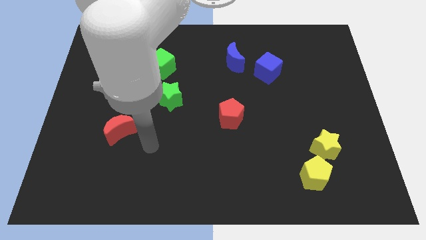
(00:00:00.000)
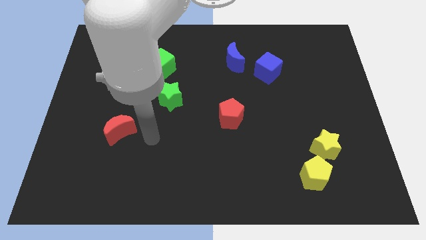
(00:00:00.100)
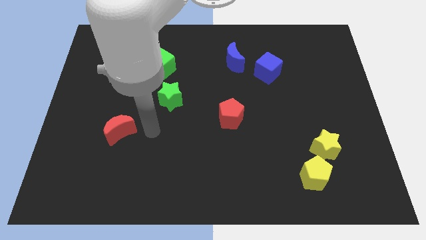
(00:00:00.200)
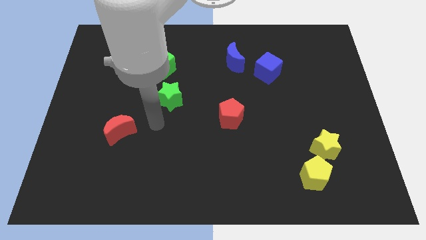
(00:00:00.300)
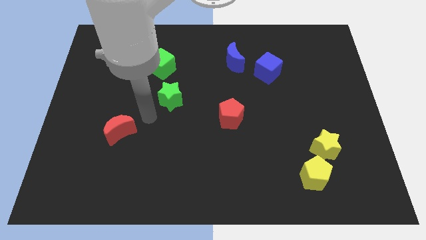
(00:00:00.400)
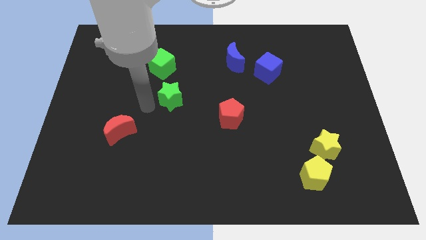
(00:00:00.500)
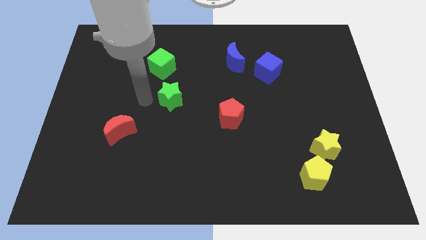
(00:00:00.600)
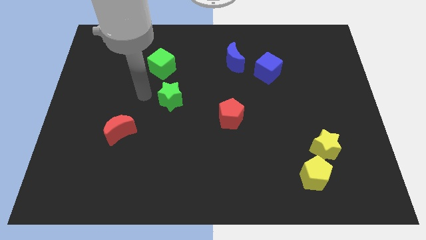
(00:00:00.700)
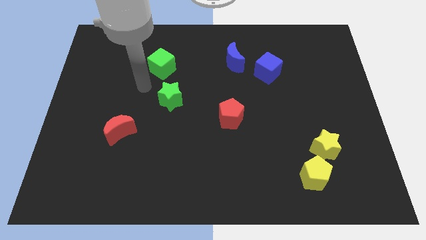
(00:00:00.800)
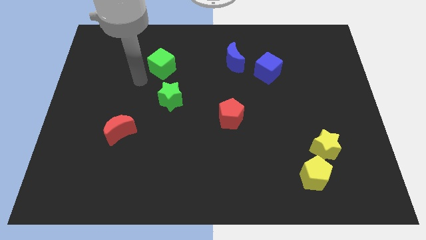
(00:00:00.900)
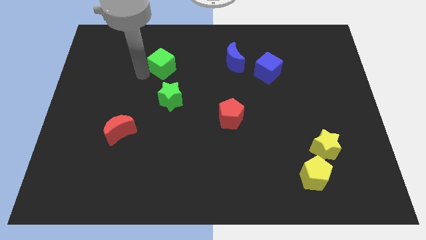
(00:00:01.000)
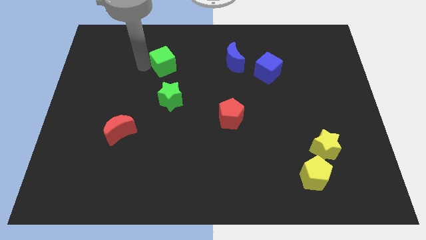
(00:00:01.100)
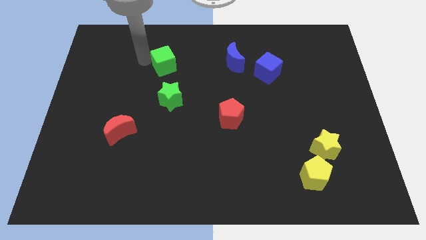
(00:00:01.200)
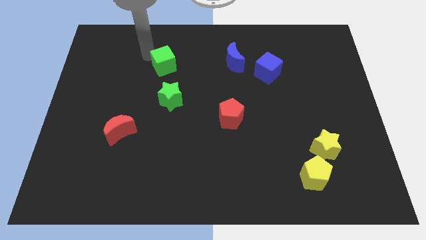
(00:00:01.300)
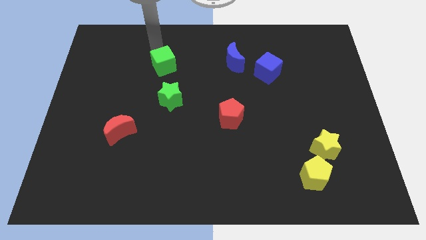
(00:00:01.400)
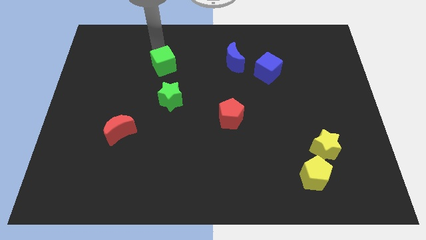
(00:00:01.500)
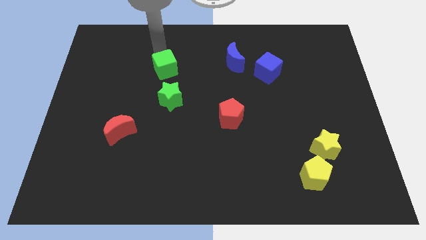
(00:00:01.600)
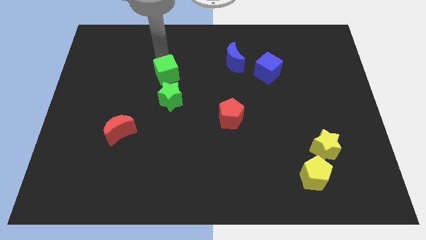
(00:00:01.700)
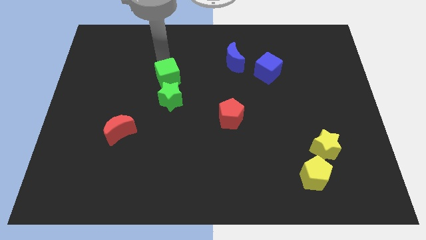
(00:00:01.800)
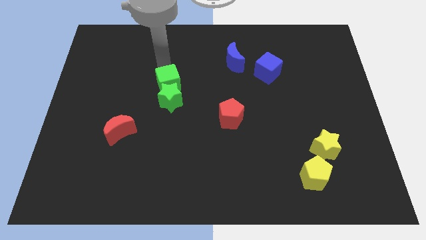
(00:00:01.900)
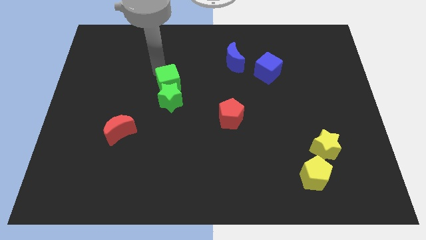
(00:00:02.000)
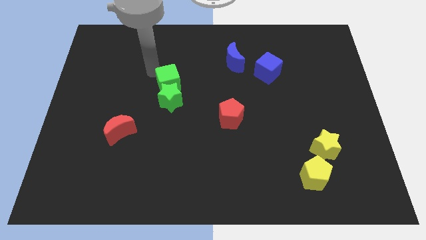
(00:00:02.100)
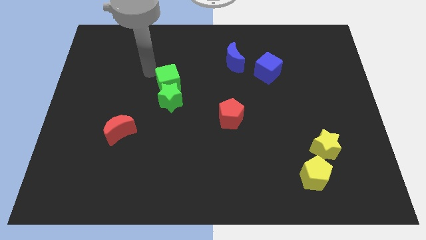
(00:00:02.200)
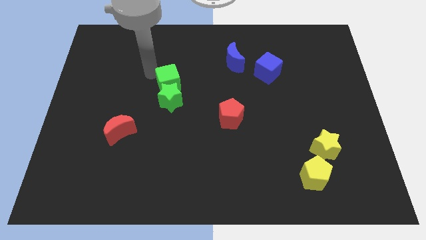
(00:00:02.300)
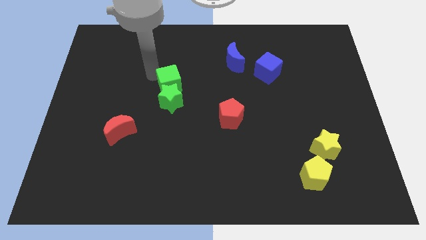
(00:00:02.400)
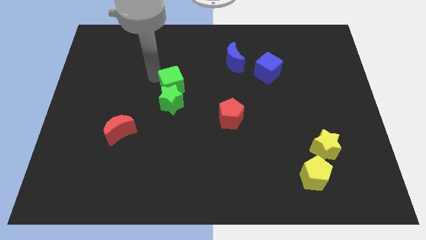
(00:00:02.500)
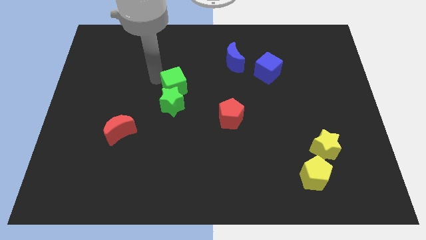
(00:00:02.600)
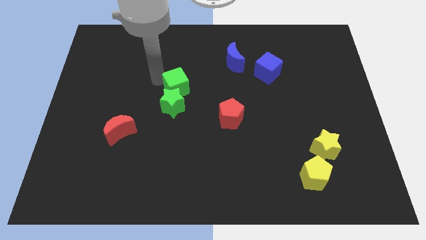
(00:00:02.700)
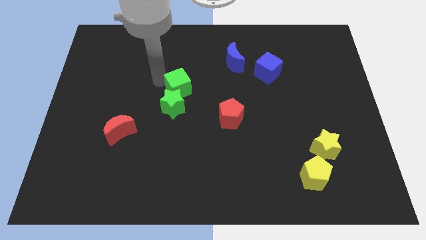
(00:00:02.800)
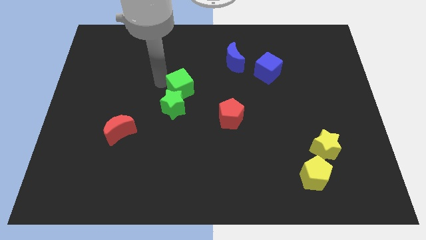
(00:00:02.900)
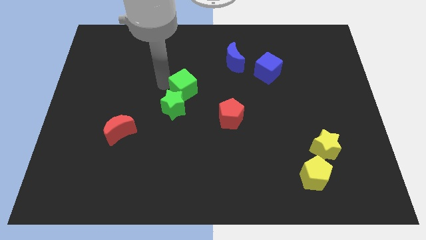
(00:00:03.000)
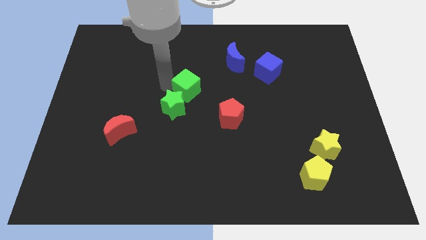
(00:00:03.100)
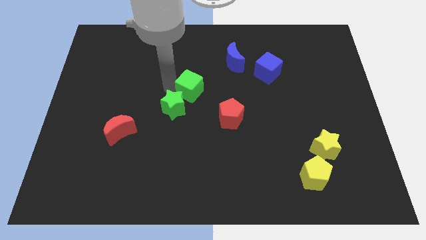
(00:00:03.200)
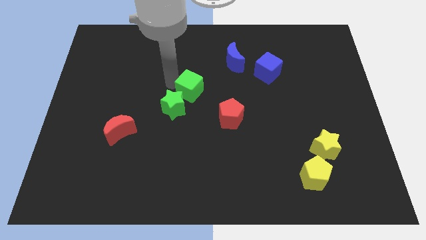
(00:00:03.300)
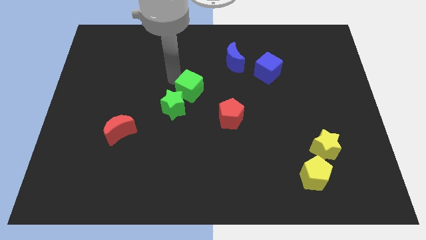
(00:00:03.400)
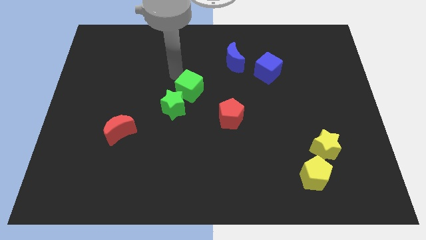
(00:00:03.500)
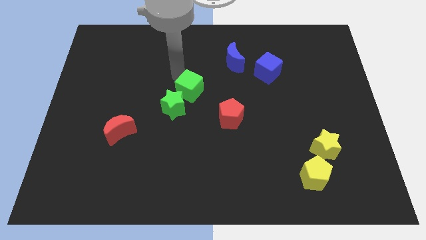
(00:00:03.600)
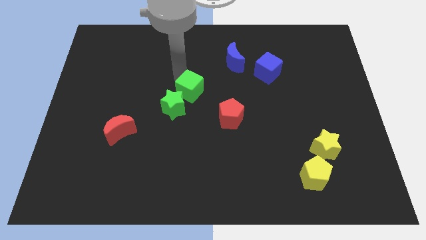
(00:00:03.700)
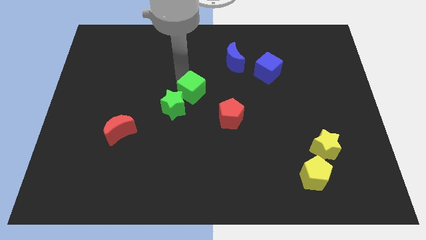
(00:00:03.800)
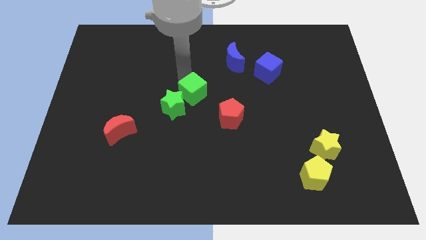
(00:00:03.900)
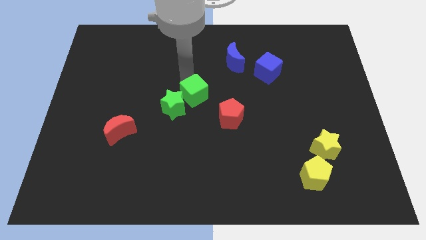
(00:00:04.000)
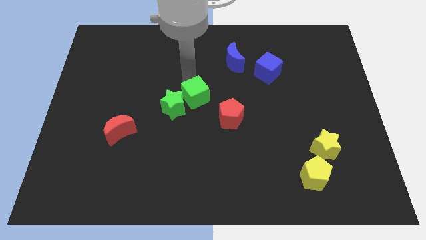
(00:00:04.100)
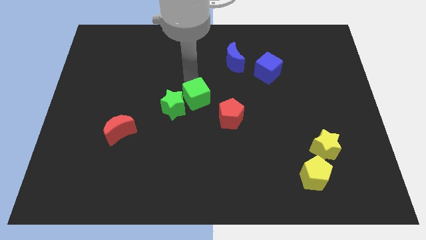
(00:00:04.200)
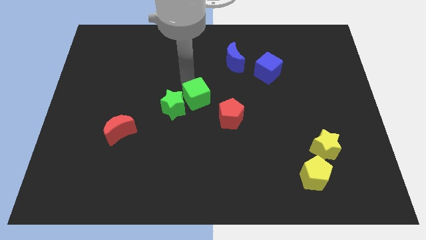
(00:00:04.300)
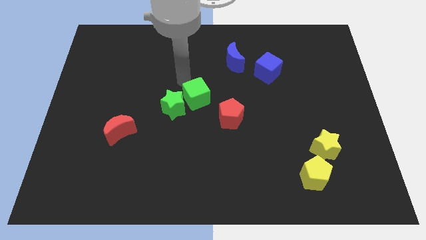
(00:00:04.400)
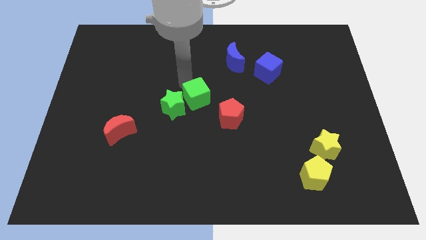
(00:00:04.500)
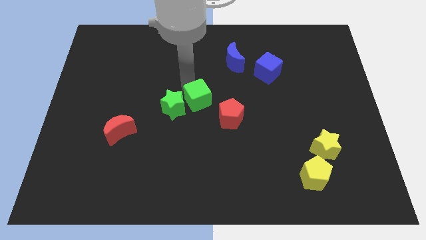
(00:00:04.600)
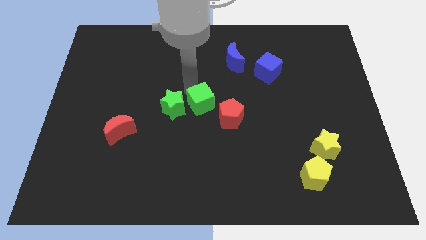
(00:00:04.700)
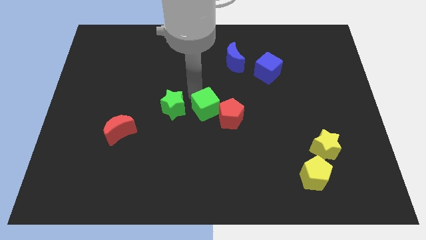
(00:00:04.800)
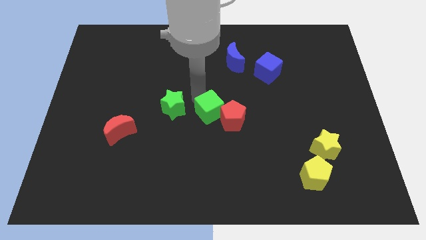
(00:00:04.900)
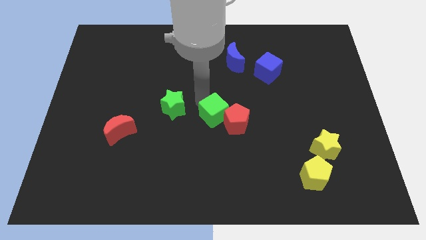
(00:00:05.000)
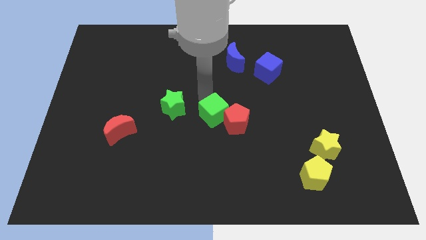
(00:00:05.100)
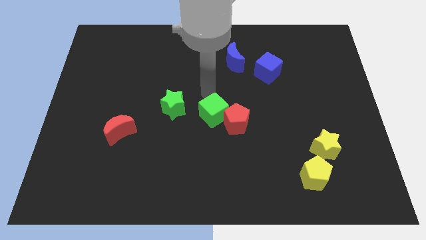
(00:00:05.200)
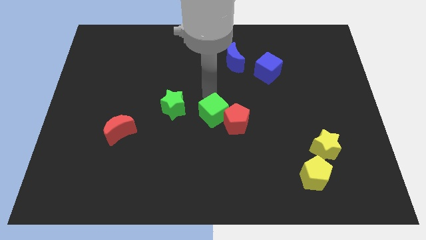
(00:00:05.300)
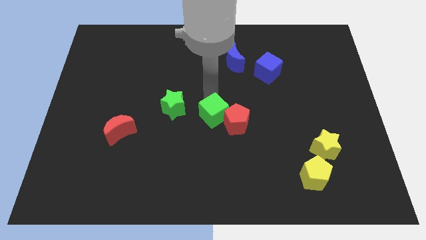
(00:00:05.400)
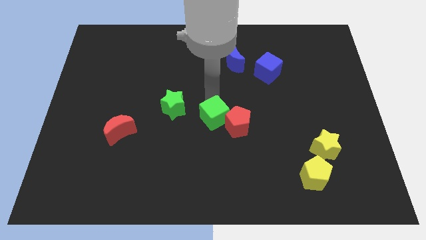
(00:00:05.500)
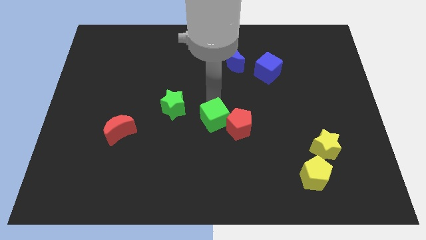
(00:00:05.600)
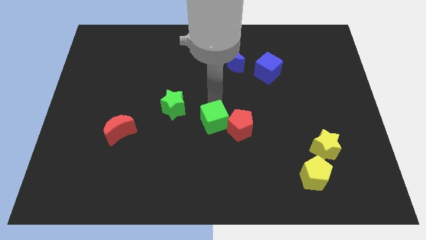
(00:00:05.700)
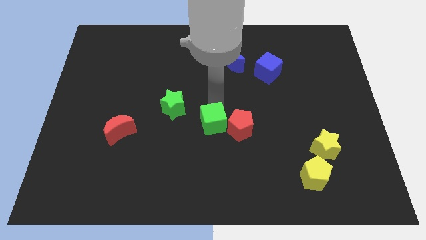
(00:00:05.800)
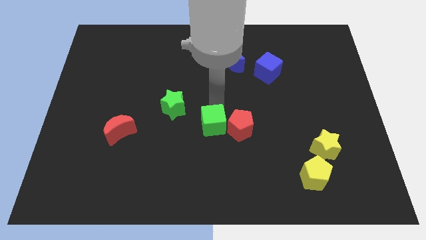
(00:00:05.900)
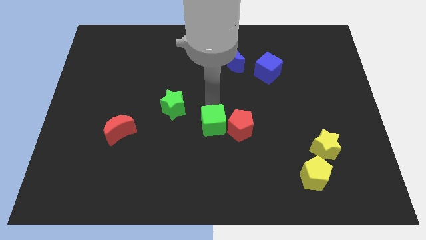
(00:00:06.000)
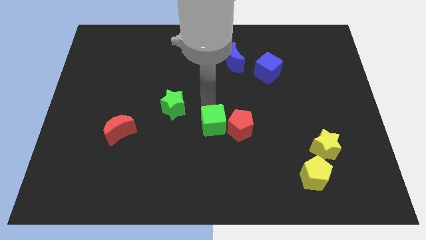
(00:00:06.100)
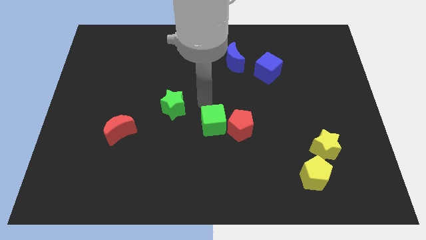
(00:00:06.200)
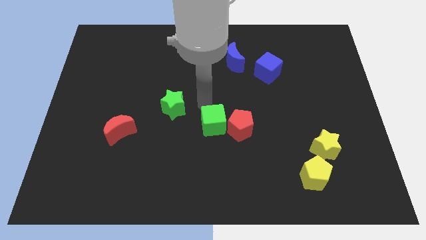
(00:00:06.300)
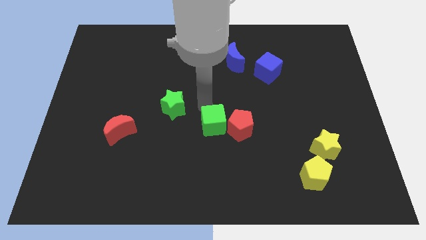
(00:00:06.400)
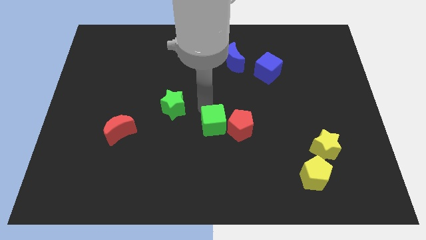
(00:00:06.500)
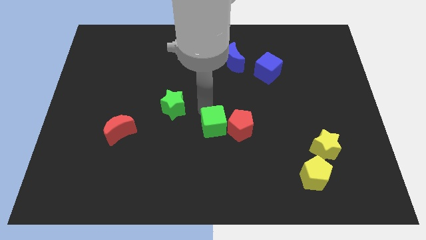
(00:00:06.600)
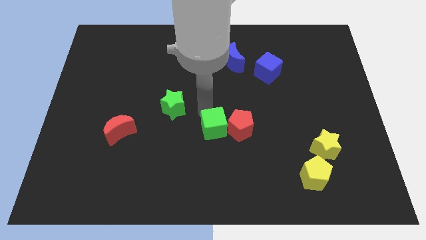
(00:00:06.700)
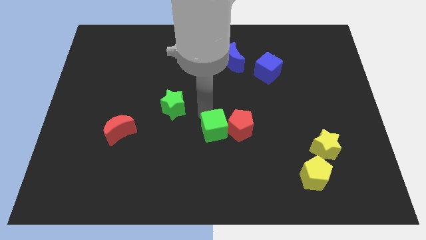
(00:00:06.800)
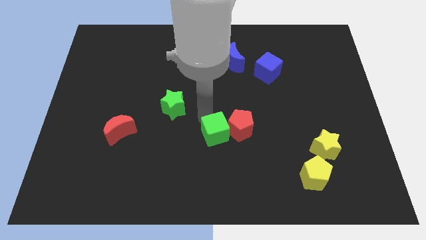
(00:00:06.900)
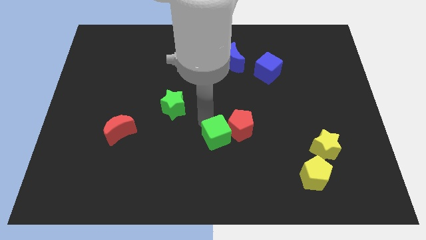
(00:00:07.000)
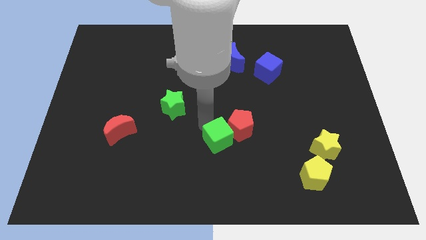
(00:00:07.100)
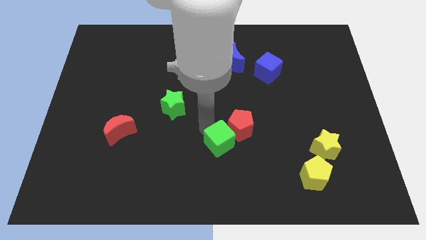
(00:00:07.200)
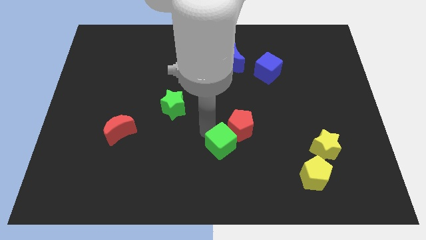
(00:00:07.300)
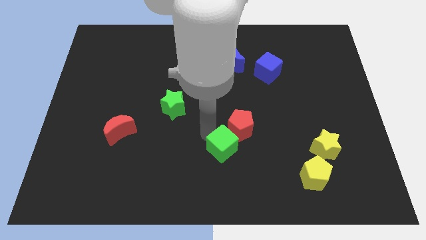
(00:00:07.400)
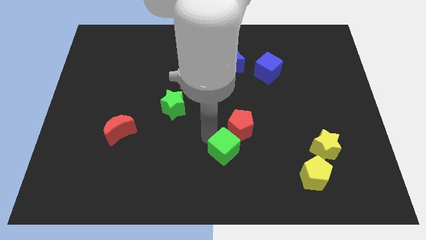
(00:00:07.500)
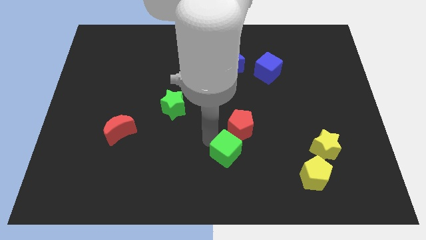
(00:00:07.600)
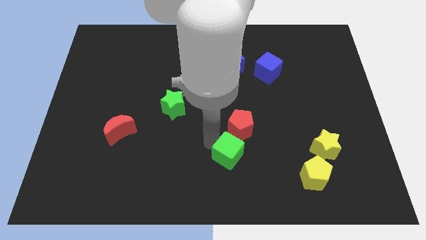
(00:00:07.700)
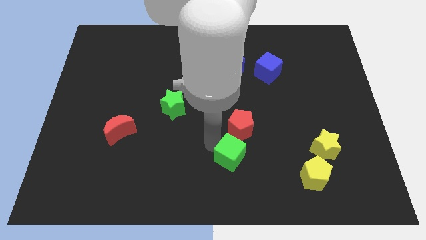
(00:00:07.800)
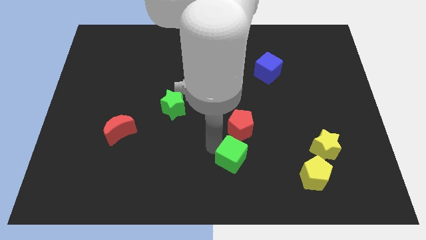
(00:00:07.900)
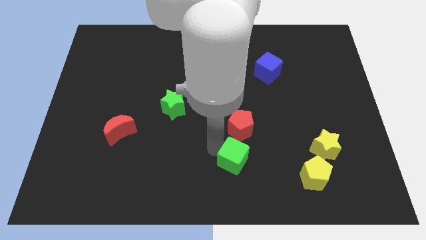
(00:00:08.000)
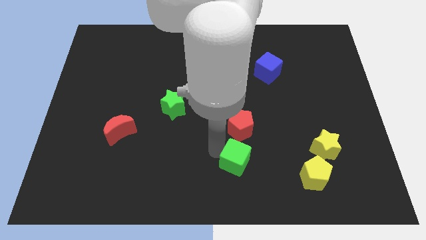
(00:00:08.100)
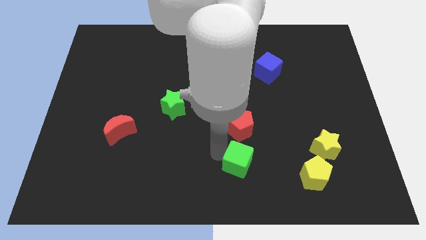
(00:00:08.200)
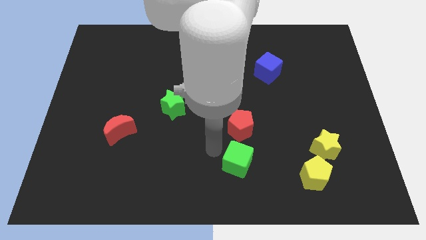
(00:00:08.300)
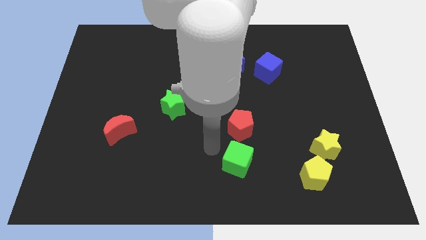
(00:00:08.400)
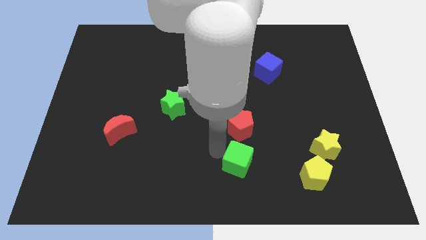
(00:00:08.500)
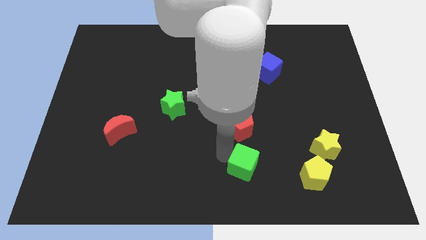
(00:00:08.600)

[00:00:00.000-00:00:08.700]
move the green cube to the left of the yellow pentagon
